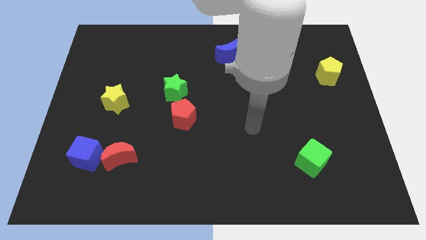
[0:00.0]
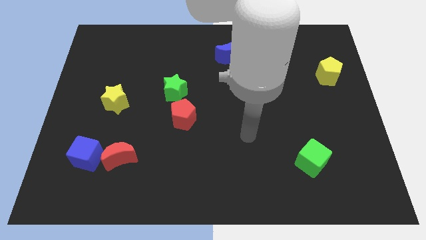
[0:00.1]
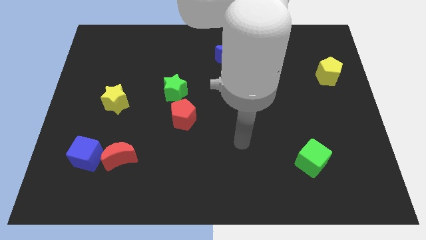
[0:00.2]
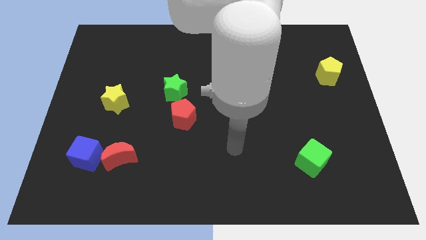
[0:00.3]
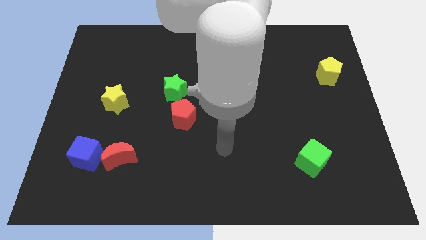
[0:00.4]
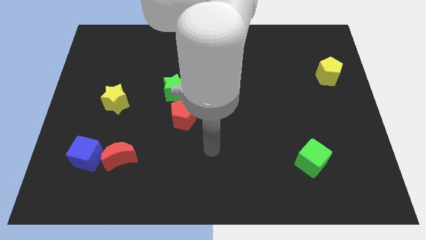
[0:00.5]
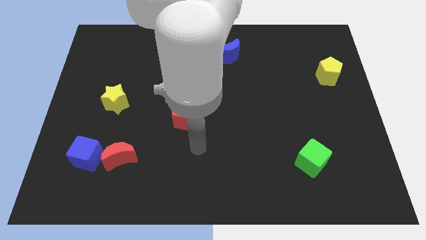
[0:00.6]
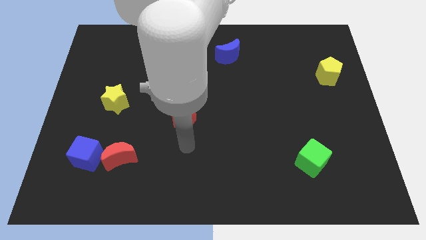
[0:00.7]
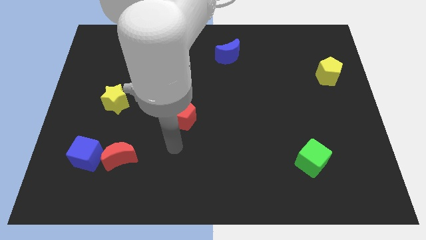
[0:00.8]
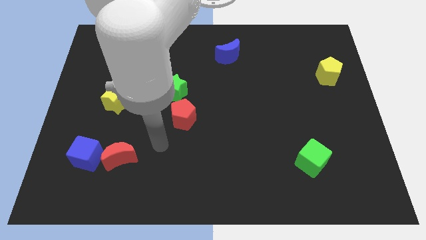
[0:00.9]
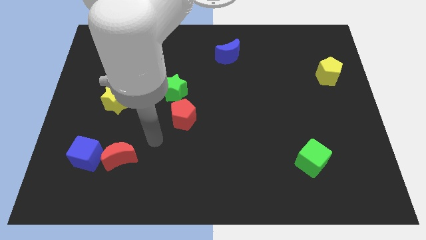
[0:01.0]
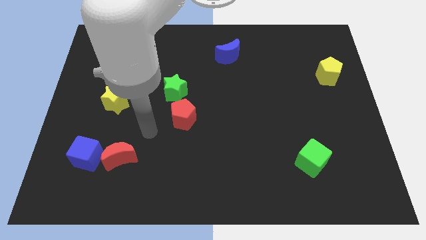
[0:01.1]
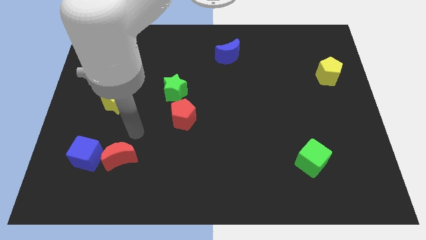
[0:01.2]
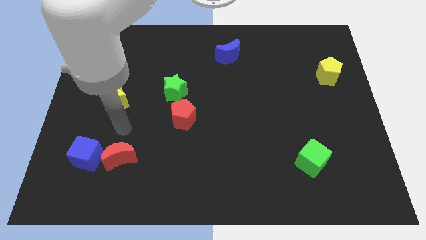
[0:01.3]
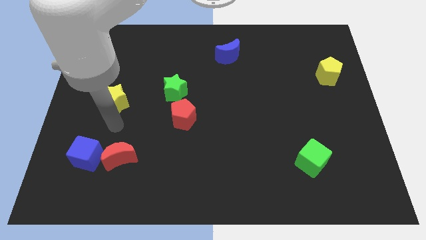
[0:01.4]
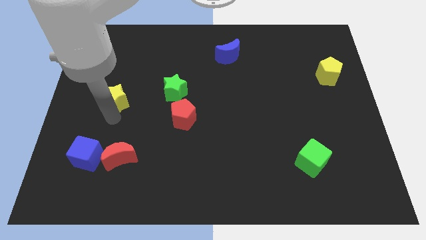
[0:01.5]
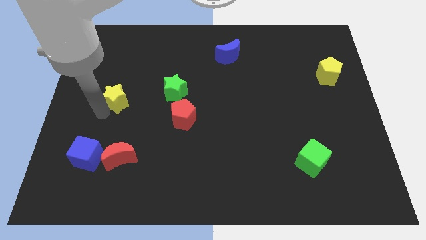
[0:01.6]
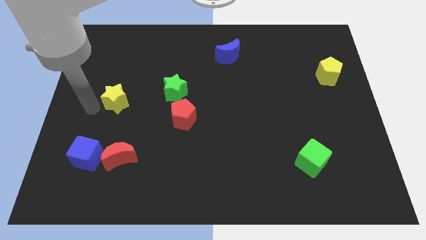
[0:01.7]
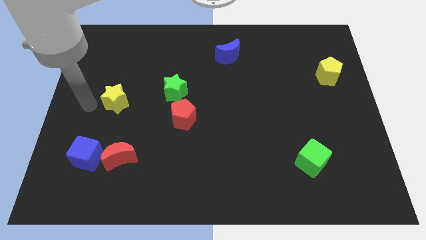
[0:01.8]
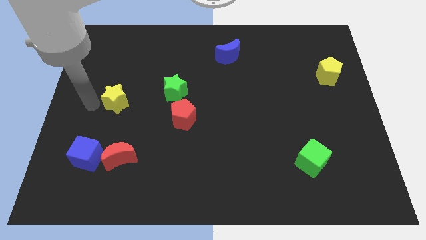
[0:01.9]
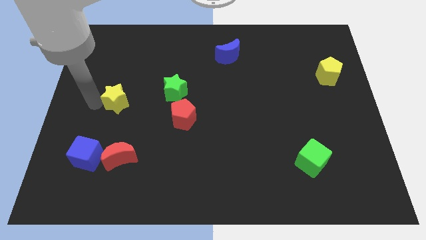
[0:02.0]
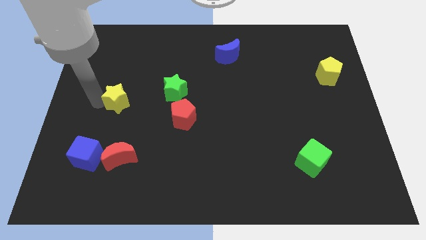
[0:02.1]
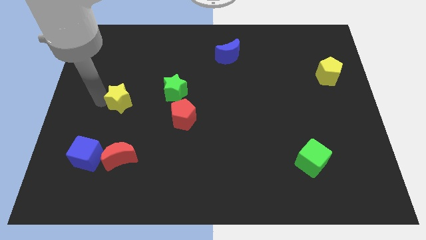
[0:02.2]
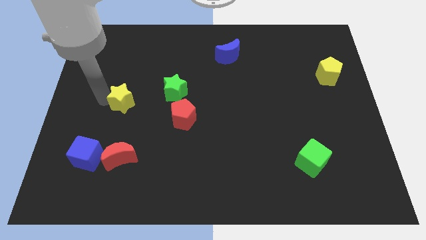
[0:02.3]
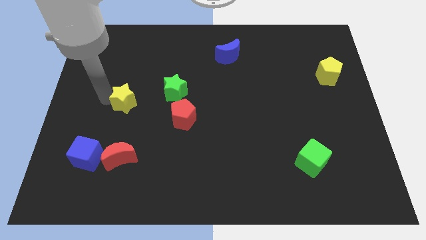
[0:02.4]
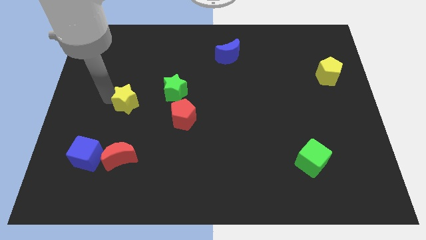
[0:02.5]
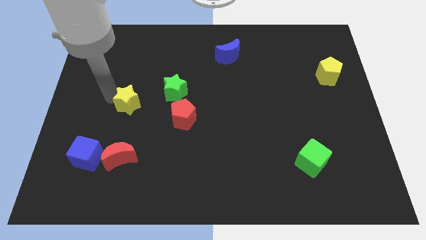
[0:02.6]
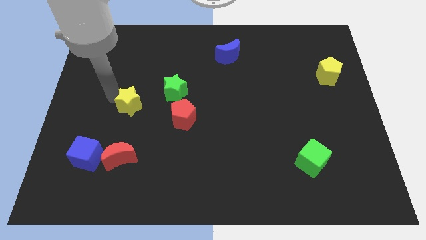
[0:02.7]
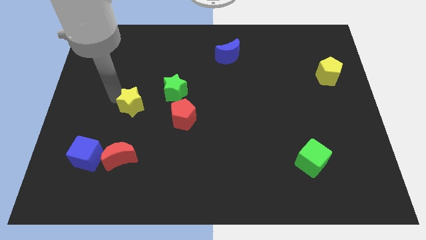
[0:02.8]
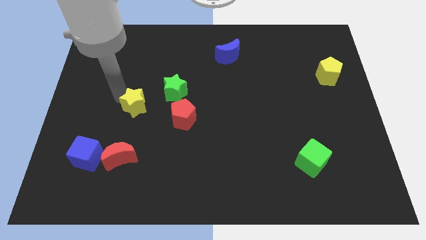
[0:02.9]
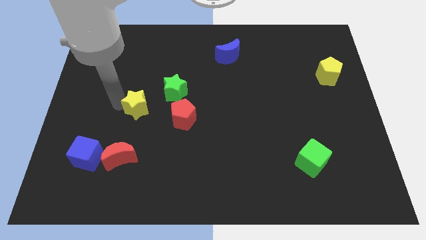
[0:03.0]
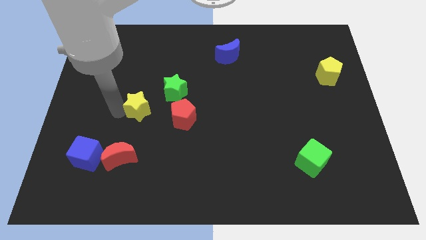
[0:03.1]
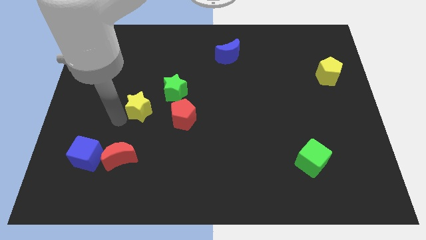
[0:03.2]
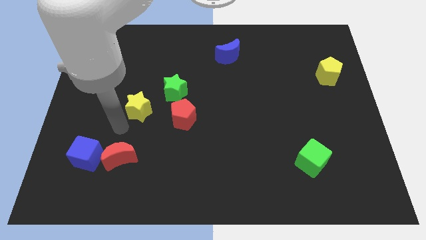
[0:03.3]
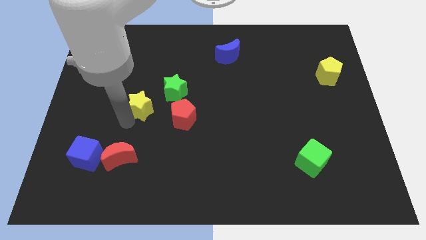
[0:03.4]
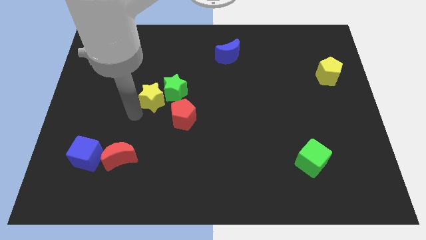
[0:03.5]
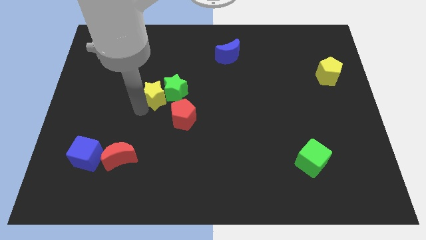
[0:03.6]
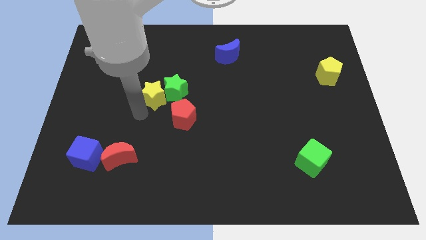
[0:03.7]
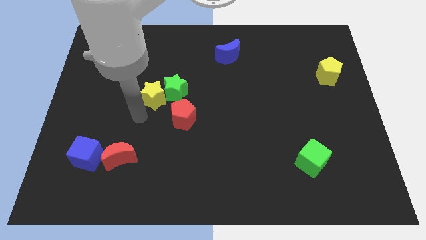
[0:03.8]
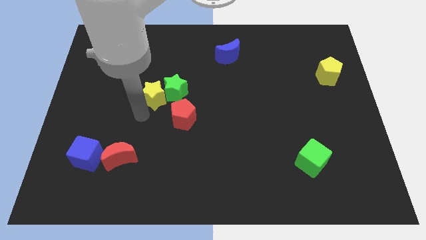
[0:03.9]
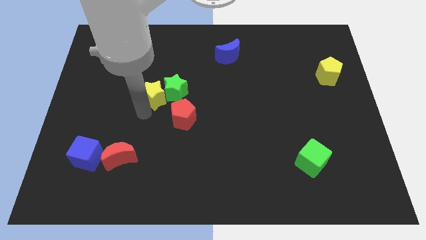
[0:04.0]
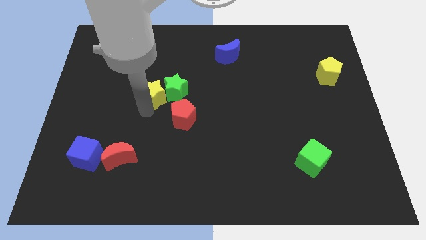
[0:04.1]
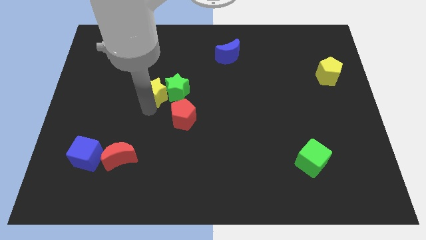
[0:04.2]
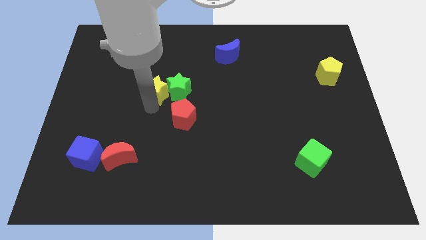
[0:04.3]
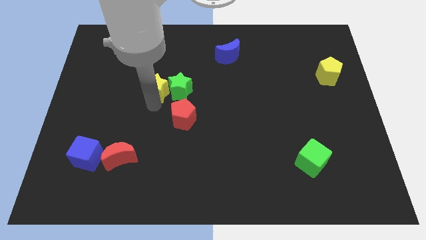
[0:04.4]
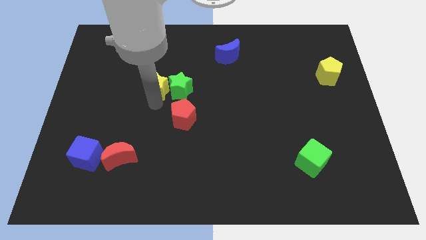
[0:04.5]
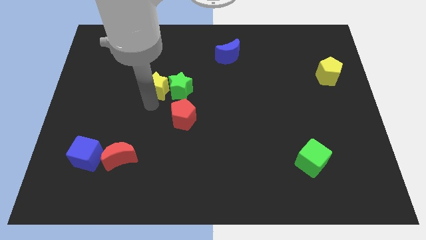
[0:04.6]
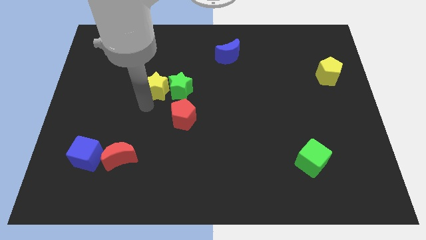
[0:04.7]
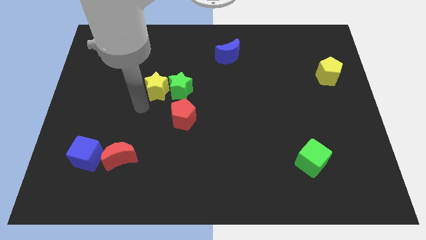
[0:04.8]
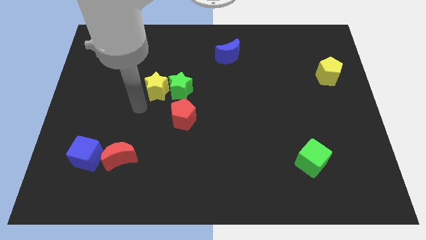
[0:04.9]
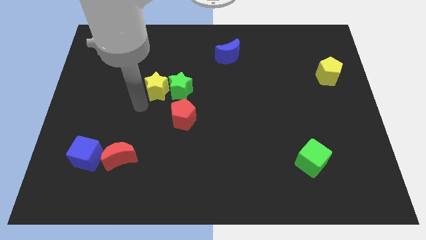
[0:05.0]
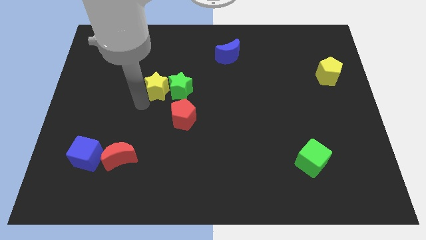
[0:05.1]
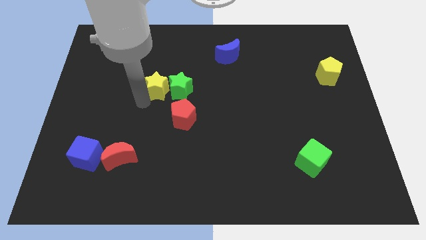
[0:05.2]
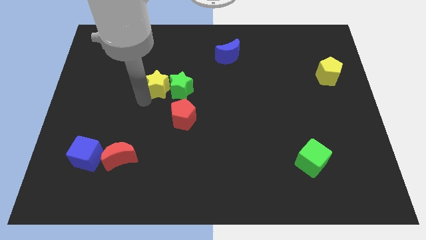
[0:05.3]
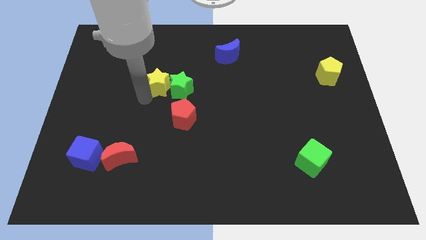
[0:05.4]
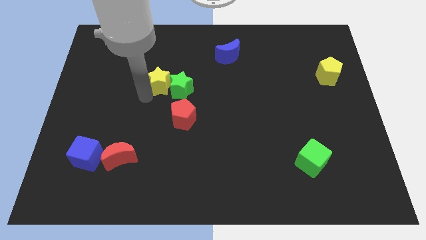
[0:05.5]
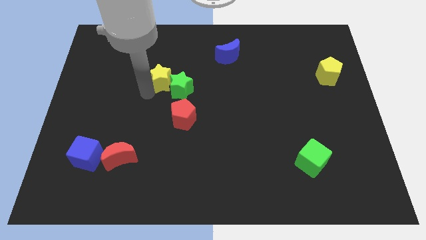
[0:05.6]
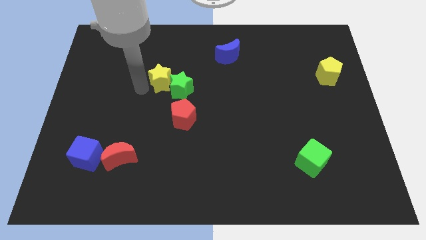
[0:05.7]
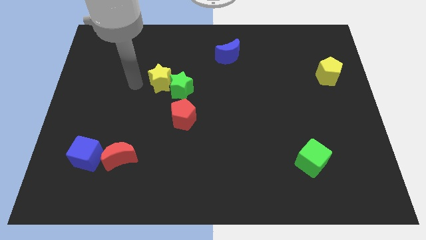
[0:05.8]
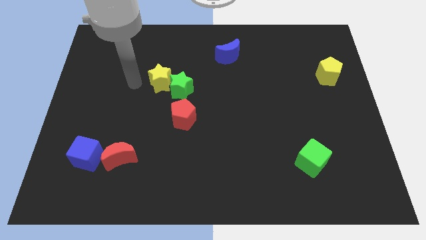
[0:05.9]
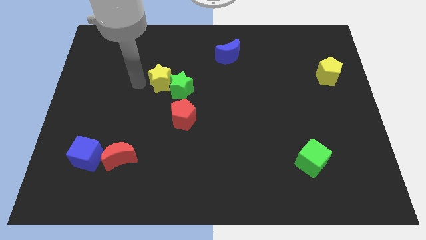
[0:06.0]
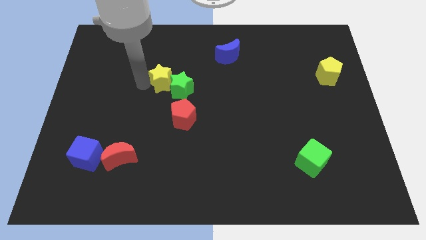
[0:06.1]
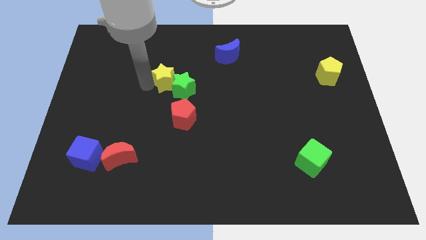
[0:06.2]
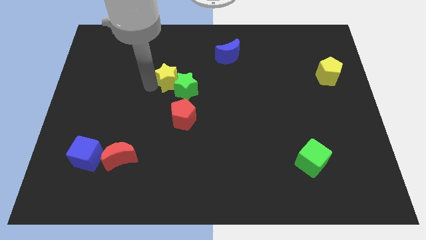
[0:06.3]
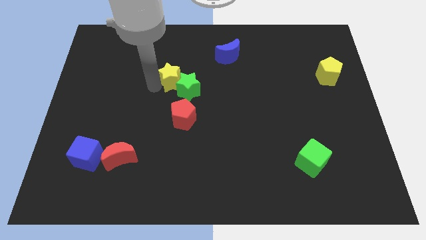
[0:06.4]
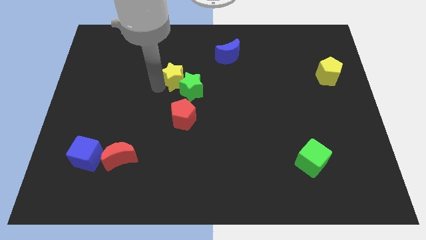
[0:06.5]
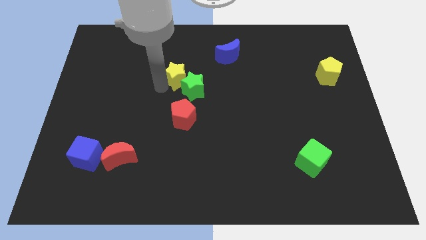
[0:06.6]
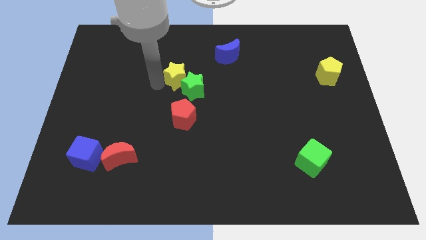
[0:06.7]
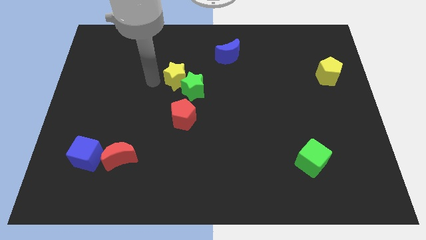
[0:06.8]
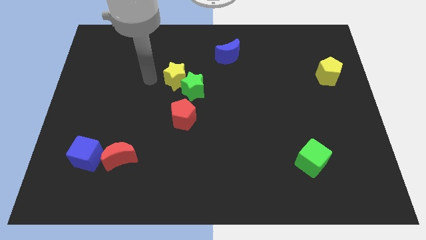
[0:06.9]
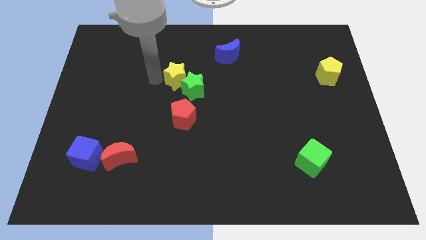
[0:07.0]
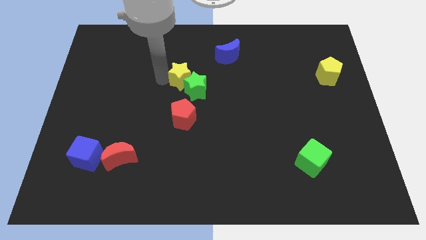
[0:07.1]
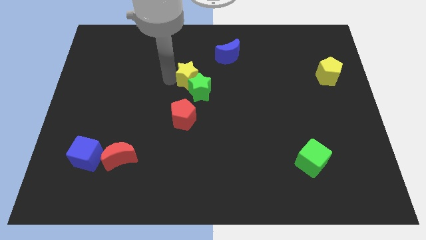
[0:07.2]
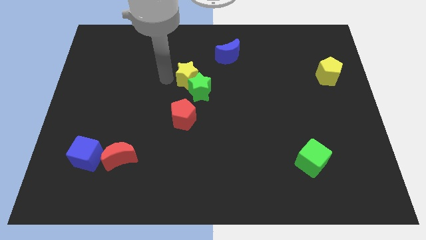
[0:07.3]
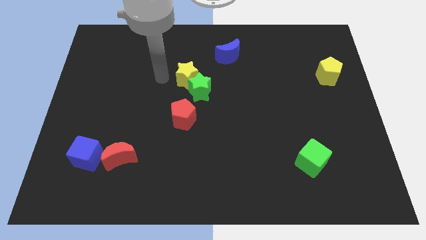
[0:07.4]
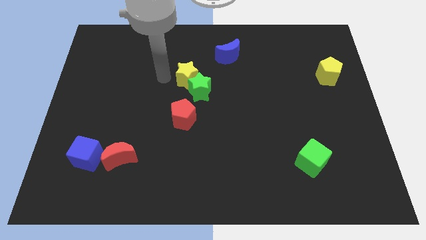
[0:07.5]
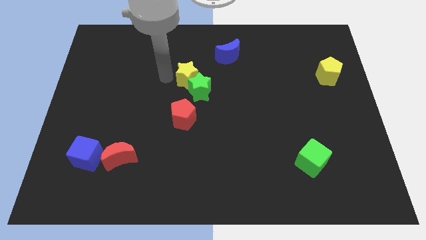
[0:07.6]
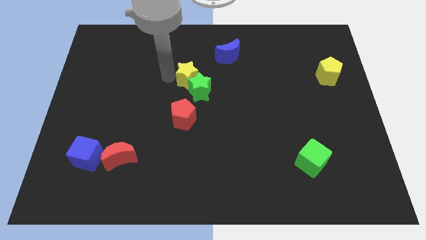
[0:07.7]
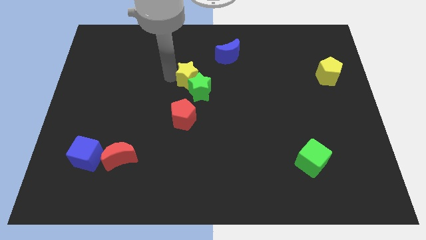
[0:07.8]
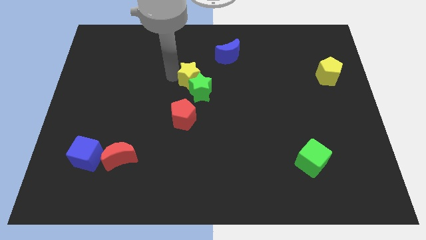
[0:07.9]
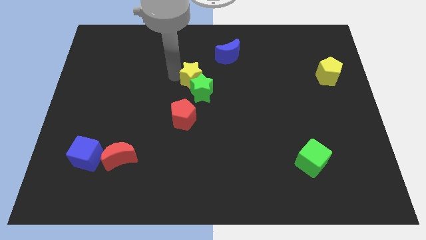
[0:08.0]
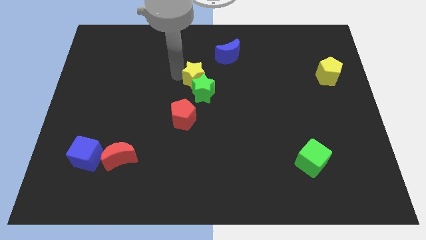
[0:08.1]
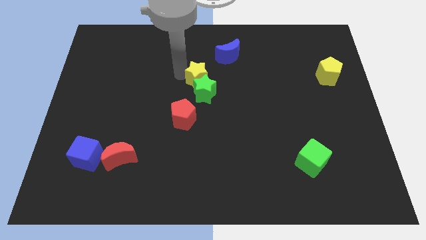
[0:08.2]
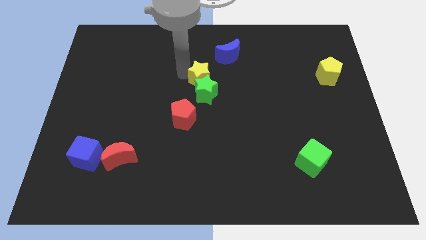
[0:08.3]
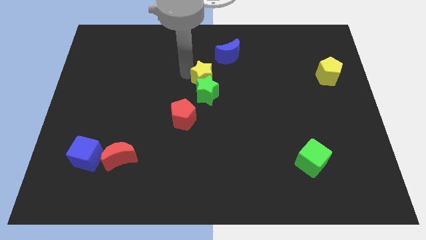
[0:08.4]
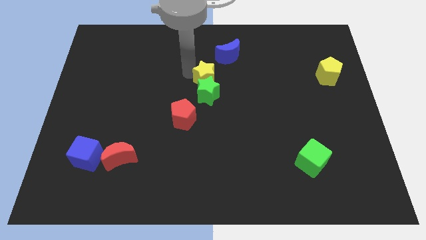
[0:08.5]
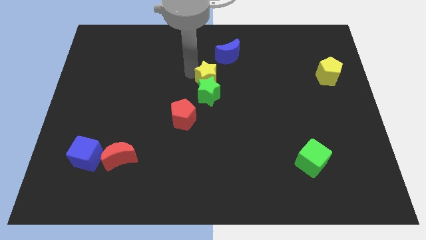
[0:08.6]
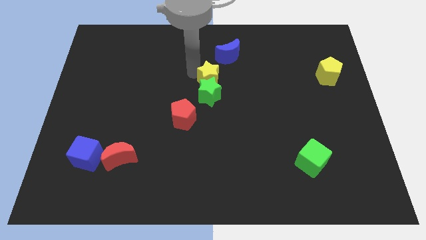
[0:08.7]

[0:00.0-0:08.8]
push the yellow star to the right
